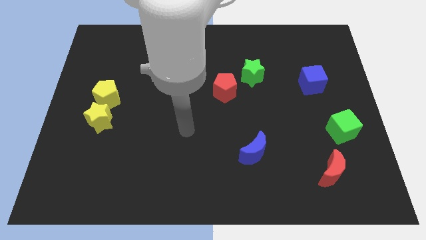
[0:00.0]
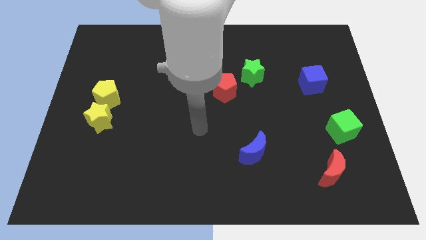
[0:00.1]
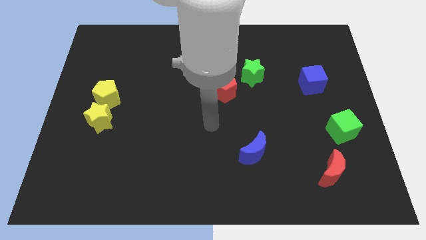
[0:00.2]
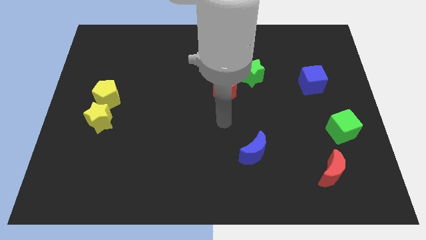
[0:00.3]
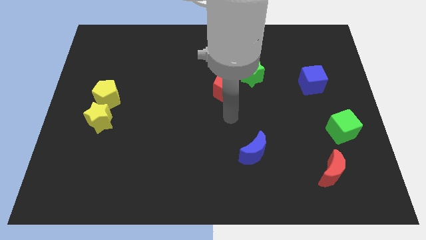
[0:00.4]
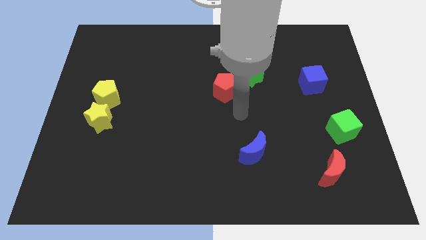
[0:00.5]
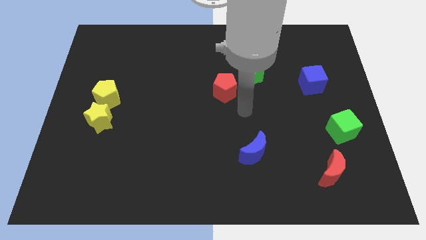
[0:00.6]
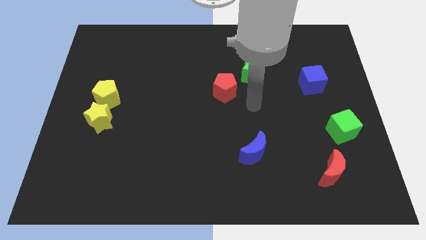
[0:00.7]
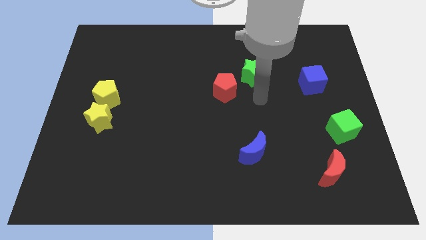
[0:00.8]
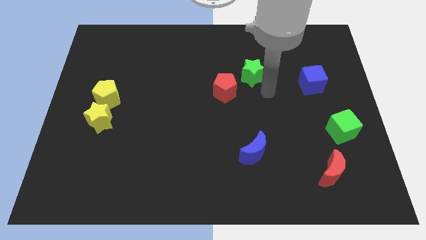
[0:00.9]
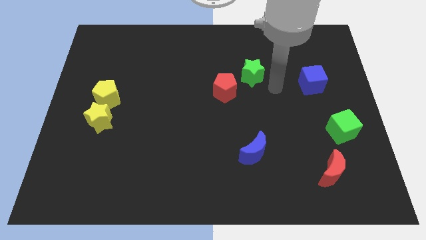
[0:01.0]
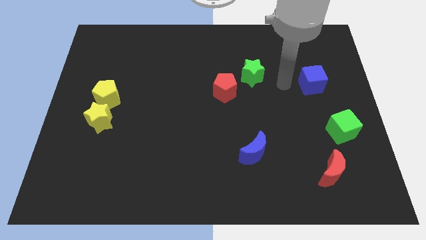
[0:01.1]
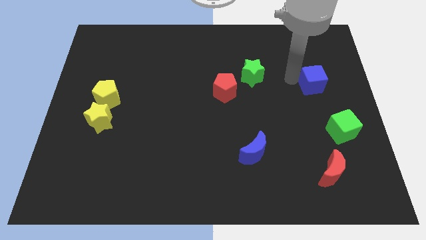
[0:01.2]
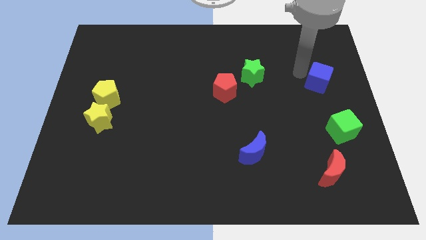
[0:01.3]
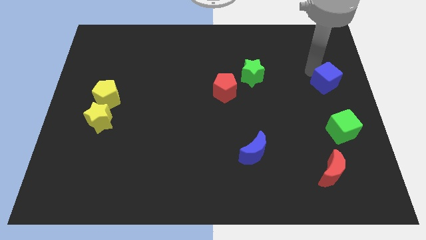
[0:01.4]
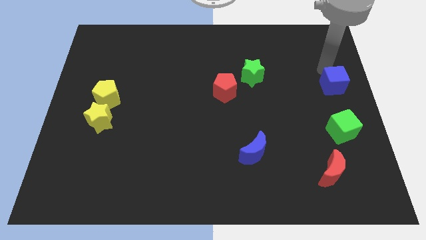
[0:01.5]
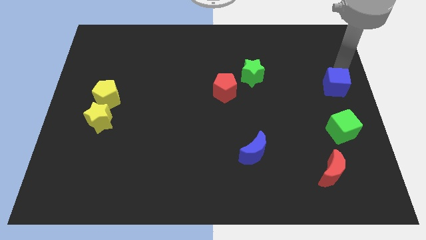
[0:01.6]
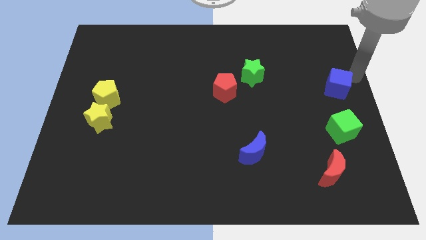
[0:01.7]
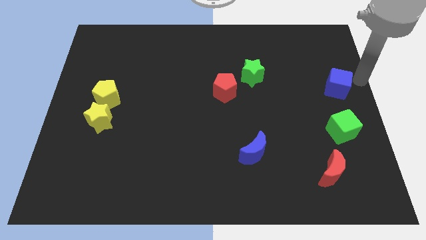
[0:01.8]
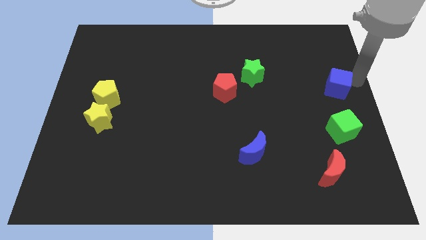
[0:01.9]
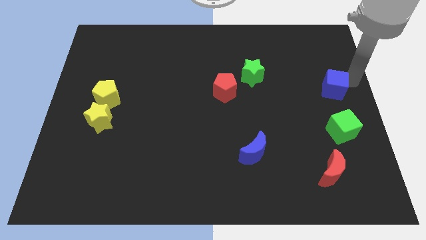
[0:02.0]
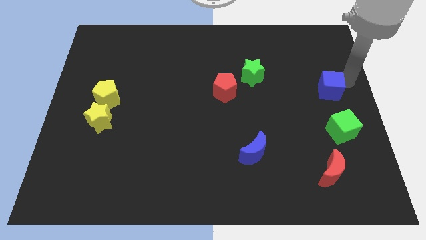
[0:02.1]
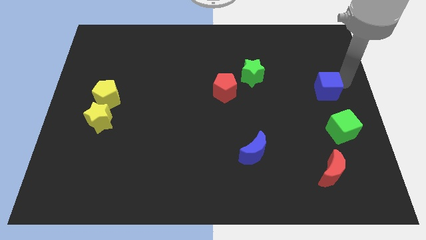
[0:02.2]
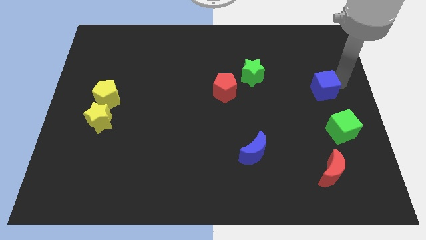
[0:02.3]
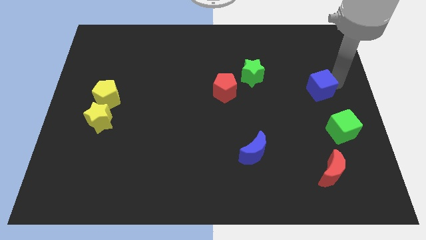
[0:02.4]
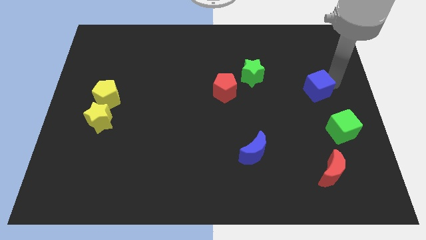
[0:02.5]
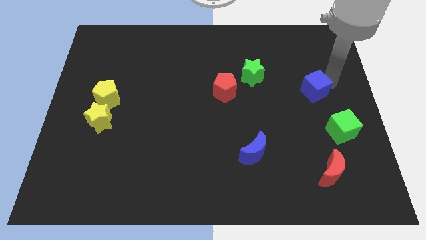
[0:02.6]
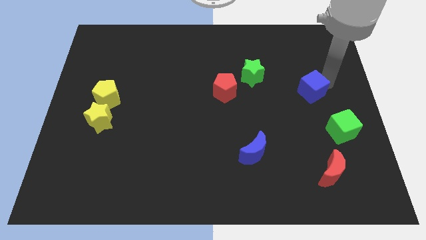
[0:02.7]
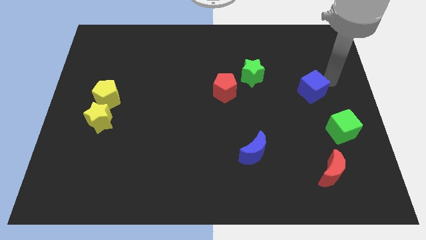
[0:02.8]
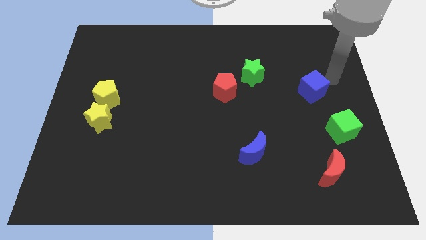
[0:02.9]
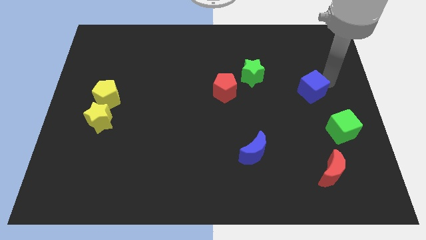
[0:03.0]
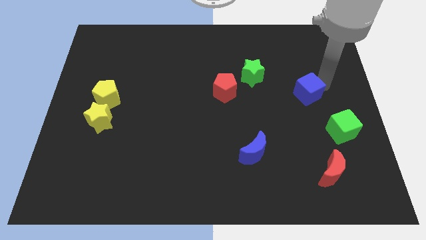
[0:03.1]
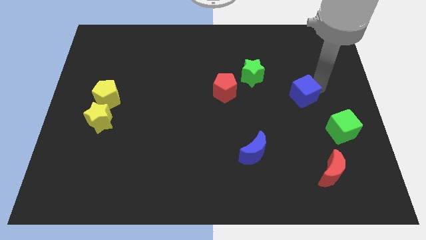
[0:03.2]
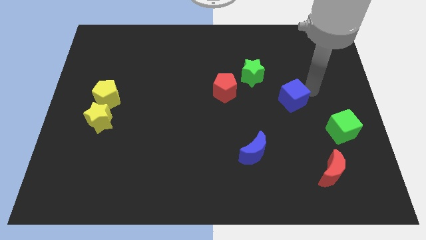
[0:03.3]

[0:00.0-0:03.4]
slide the blue cube downwards and left diagonally a little

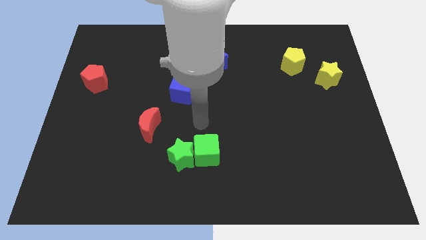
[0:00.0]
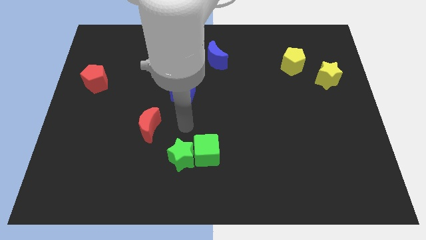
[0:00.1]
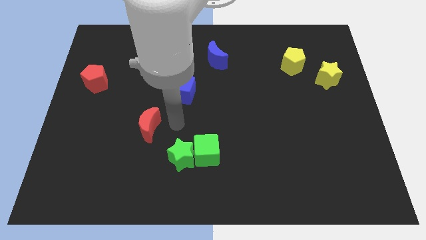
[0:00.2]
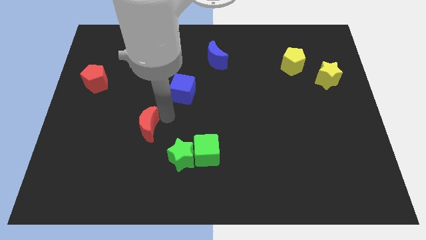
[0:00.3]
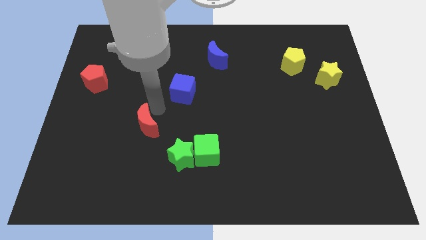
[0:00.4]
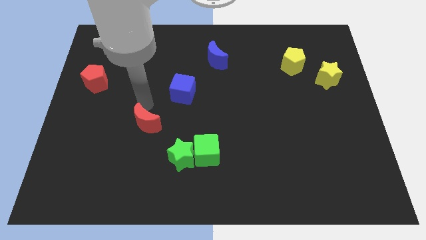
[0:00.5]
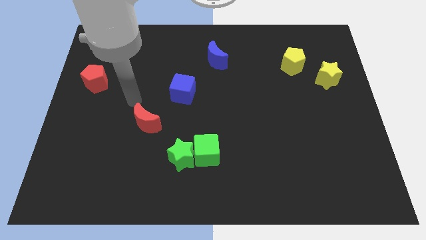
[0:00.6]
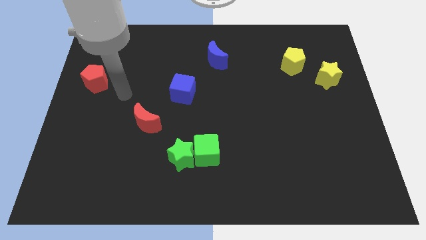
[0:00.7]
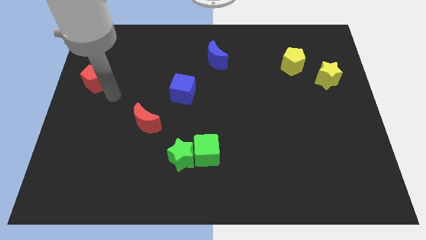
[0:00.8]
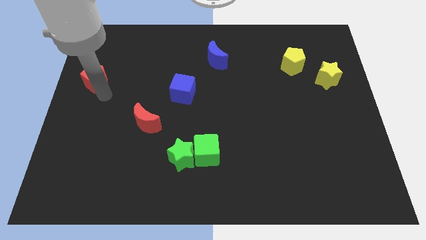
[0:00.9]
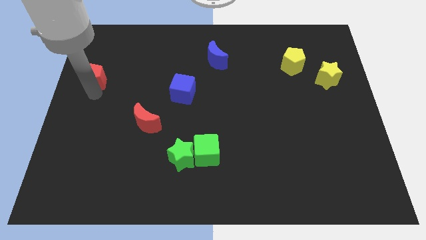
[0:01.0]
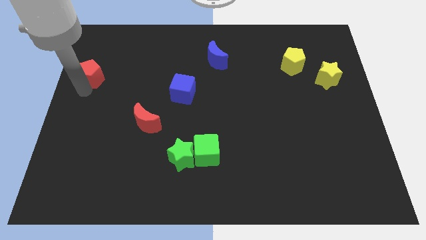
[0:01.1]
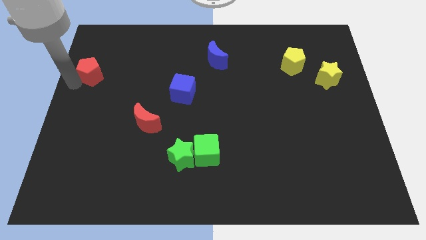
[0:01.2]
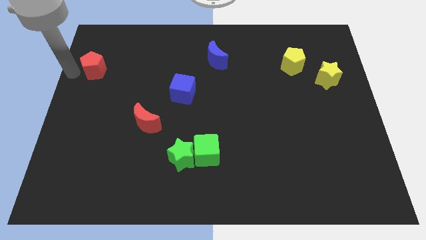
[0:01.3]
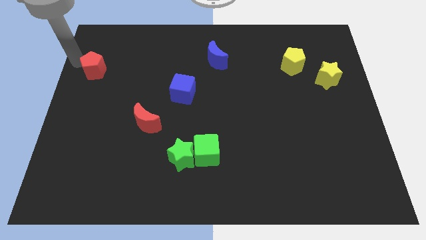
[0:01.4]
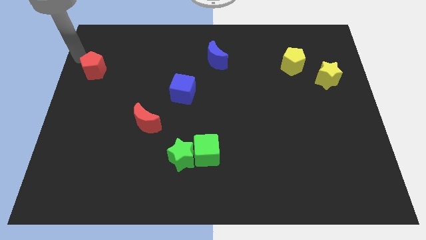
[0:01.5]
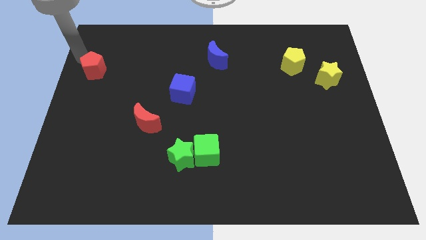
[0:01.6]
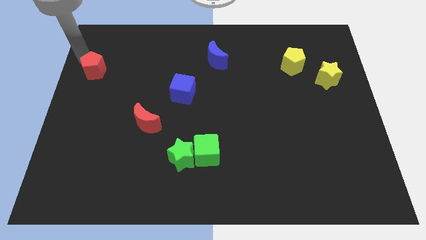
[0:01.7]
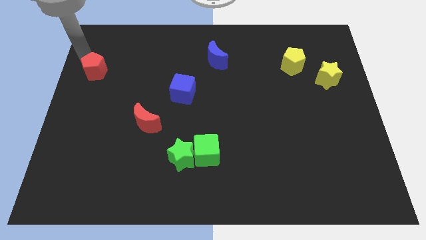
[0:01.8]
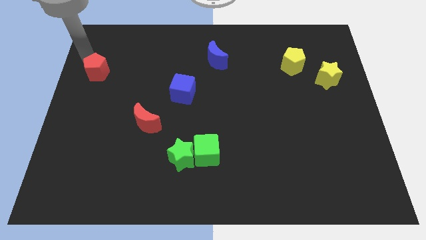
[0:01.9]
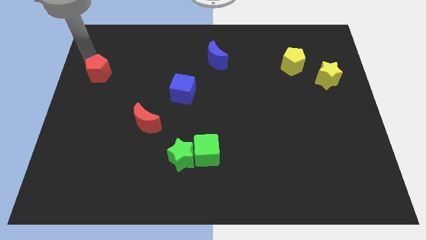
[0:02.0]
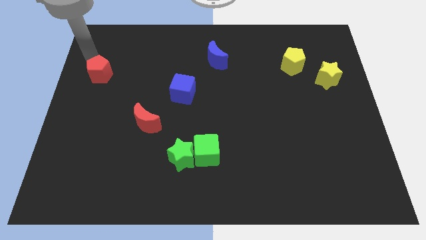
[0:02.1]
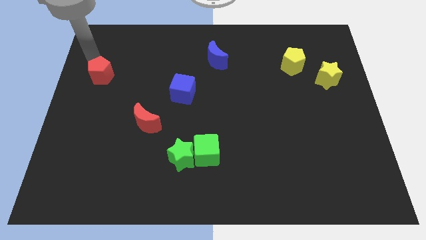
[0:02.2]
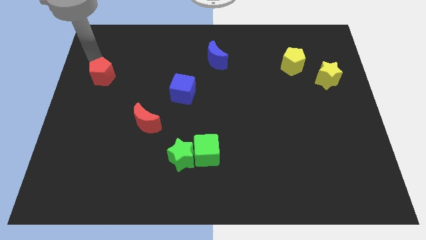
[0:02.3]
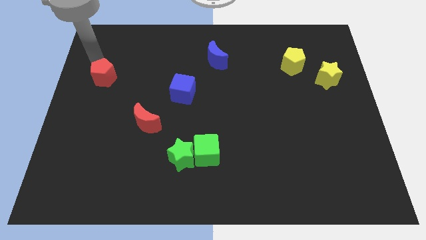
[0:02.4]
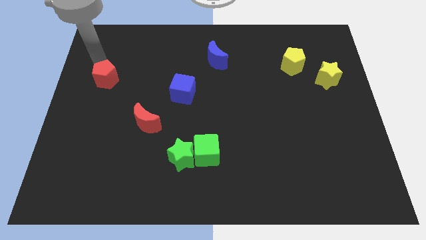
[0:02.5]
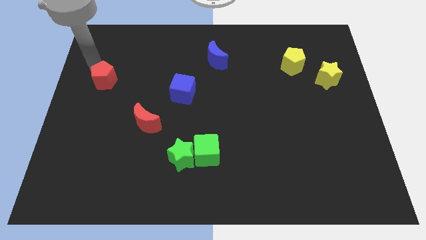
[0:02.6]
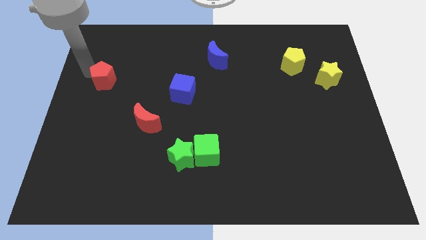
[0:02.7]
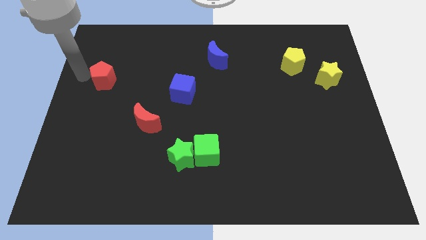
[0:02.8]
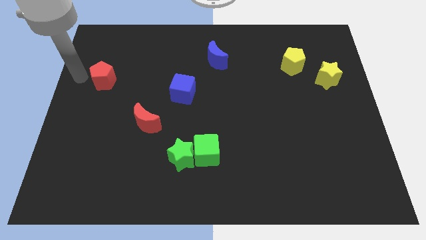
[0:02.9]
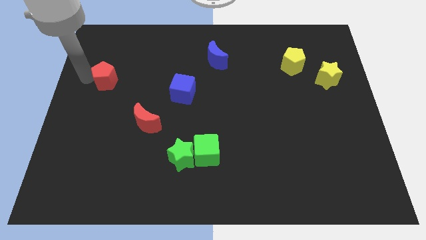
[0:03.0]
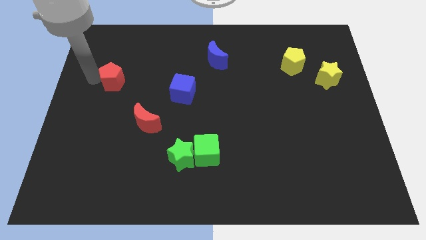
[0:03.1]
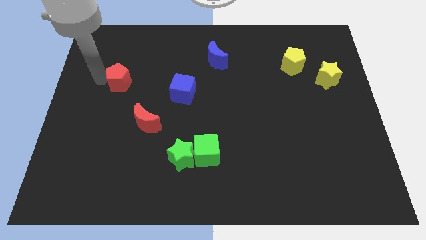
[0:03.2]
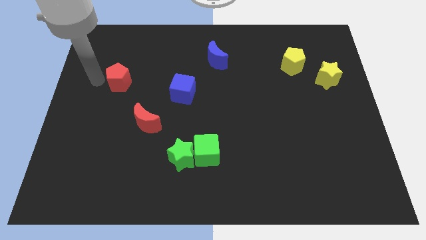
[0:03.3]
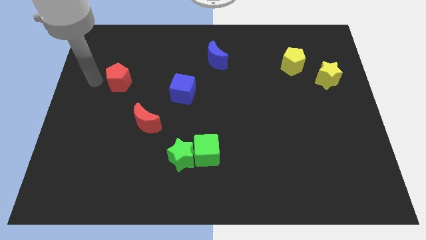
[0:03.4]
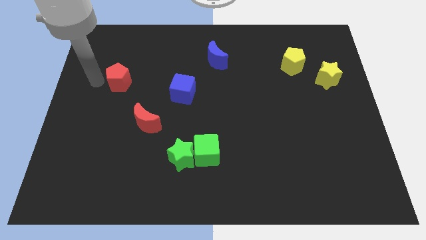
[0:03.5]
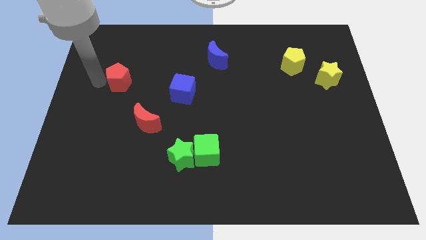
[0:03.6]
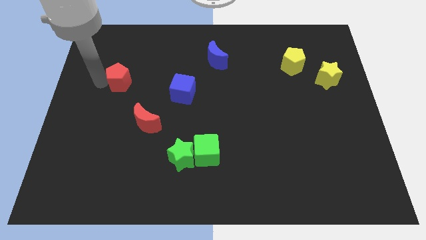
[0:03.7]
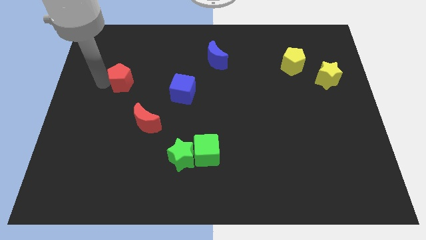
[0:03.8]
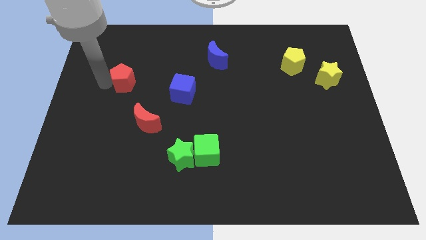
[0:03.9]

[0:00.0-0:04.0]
slightly slide the red pentagon to the right

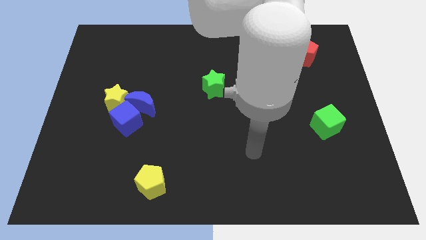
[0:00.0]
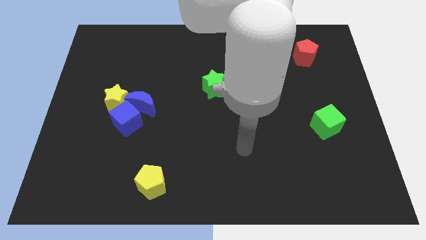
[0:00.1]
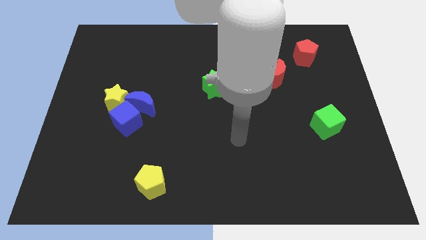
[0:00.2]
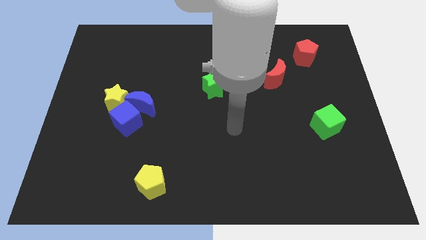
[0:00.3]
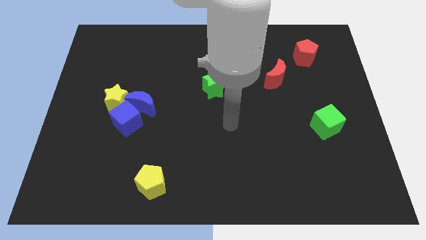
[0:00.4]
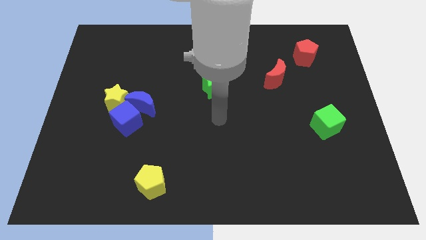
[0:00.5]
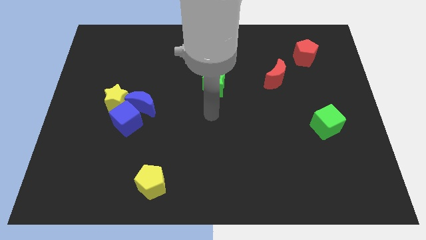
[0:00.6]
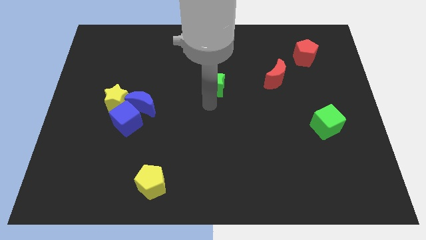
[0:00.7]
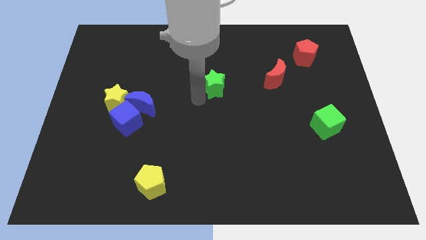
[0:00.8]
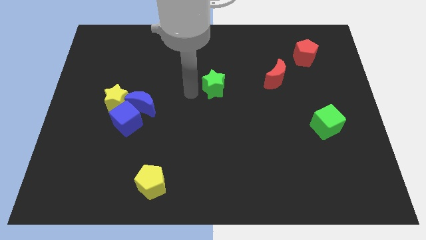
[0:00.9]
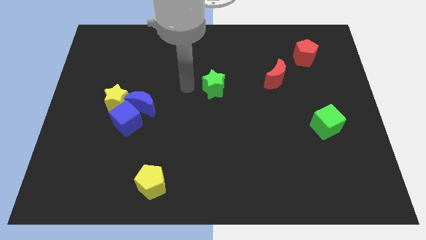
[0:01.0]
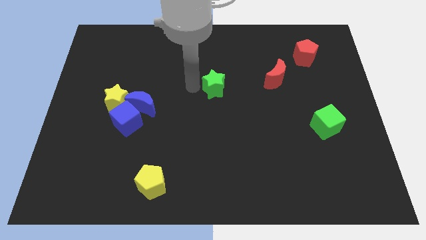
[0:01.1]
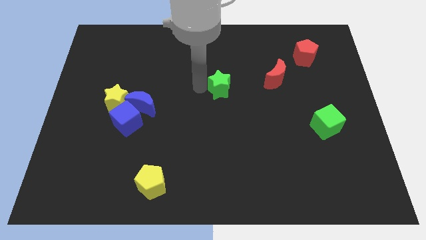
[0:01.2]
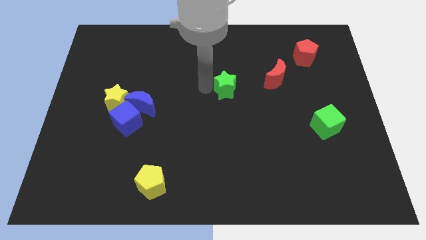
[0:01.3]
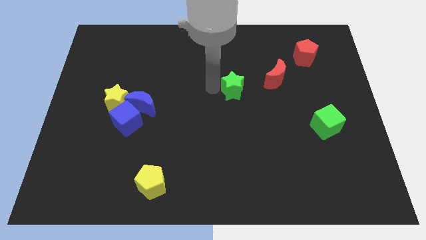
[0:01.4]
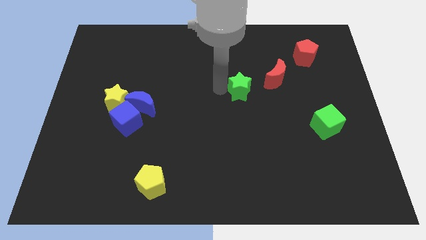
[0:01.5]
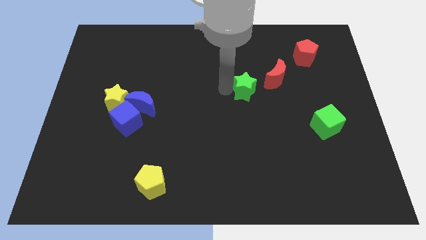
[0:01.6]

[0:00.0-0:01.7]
push the green star a little bit right
